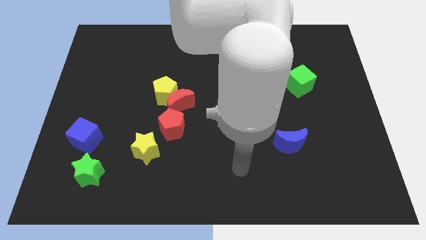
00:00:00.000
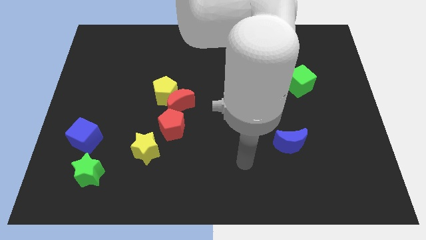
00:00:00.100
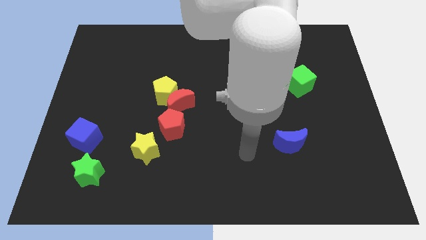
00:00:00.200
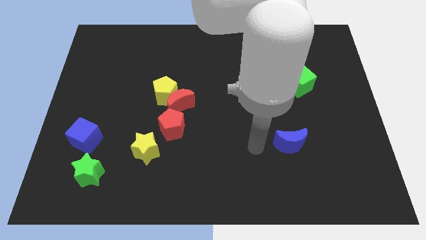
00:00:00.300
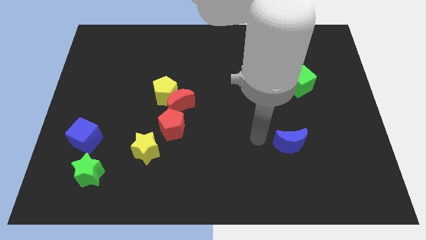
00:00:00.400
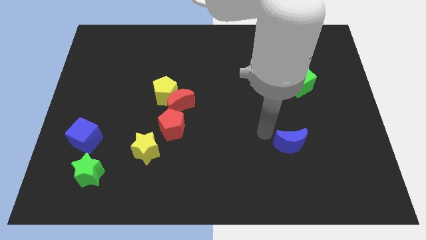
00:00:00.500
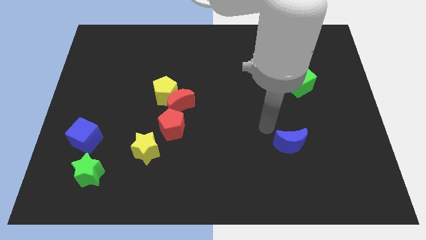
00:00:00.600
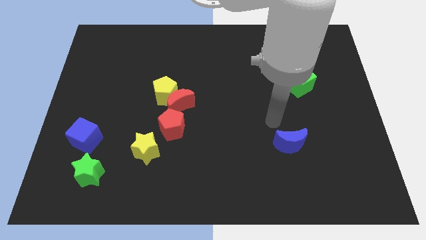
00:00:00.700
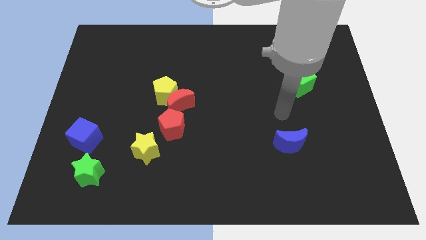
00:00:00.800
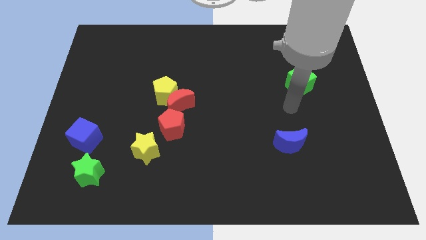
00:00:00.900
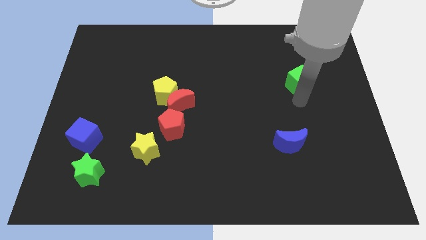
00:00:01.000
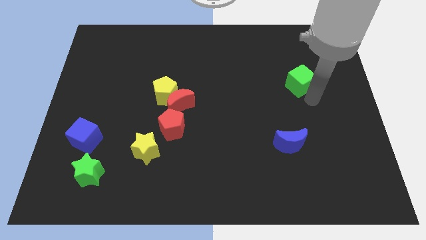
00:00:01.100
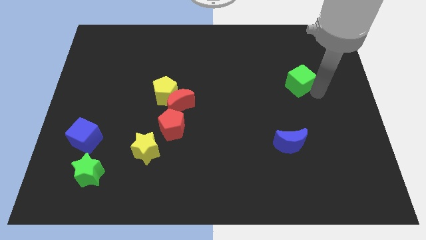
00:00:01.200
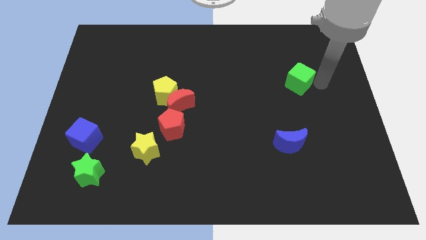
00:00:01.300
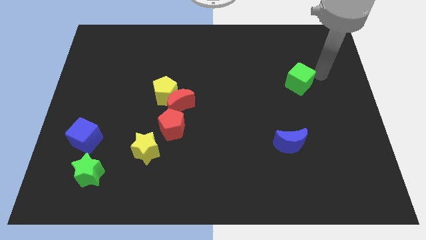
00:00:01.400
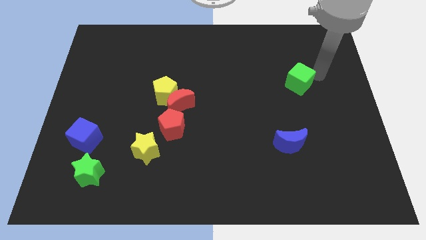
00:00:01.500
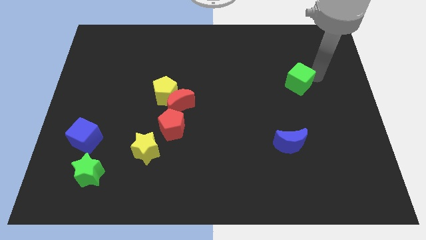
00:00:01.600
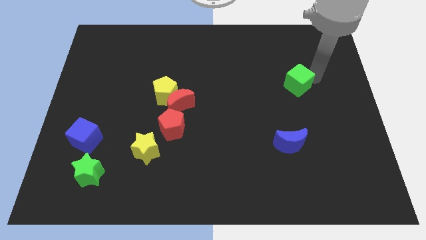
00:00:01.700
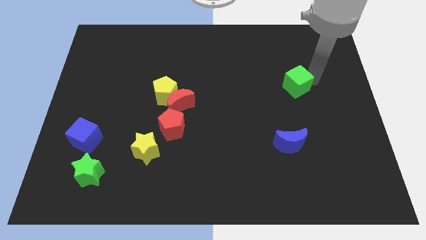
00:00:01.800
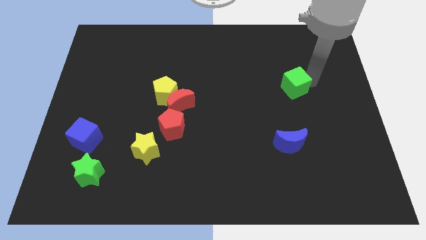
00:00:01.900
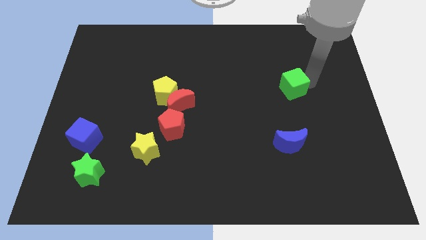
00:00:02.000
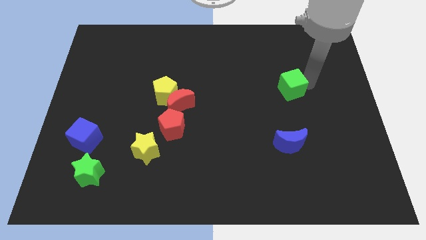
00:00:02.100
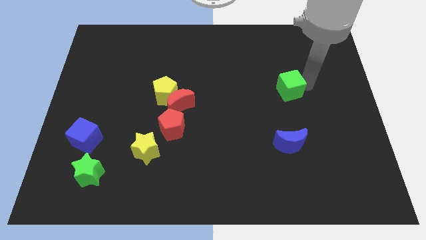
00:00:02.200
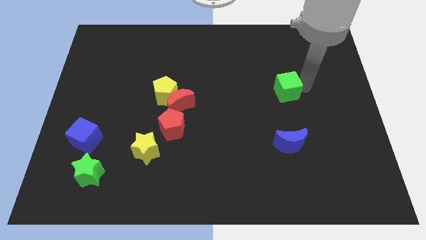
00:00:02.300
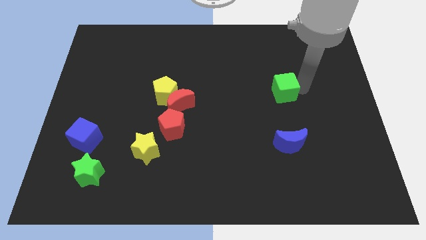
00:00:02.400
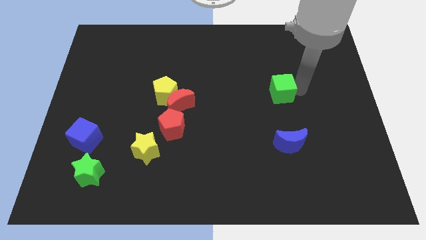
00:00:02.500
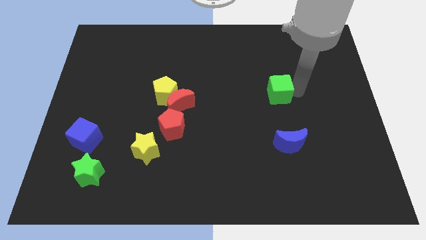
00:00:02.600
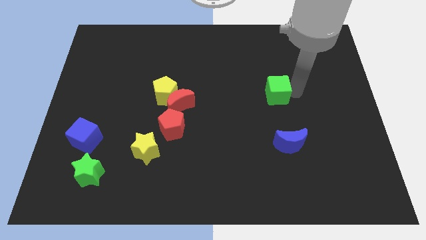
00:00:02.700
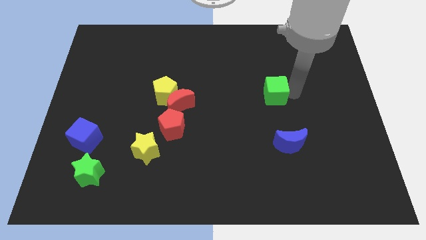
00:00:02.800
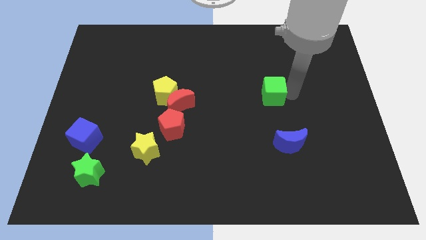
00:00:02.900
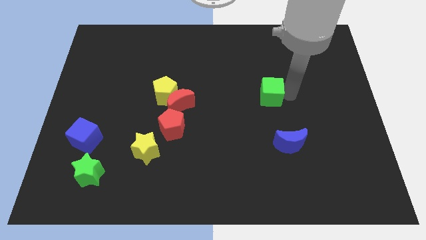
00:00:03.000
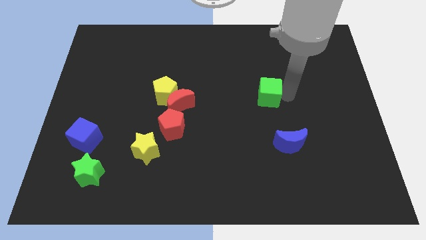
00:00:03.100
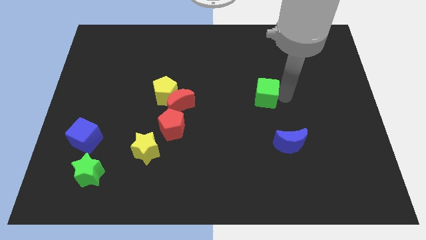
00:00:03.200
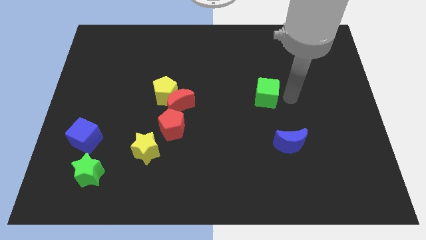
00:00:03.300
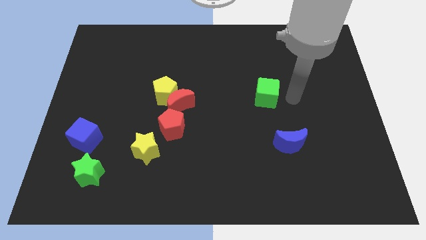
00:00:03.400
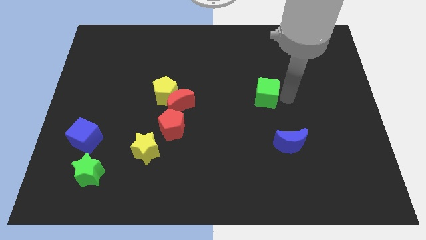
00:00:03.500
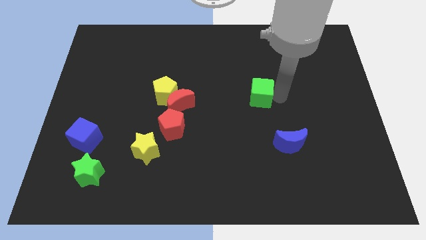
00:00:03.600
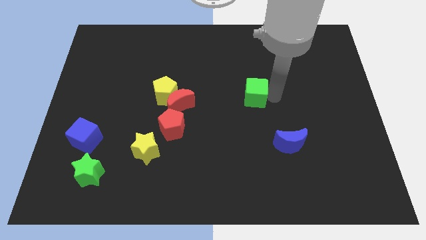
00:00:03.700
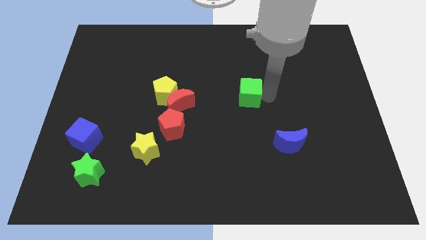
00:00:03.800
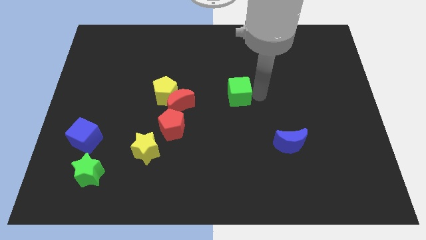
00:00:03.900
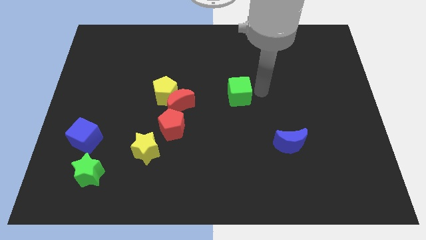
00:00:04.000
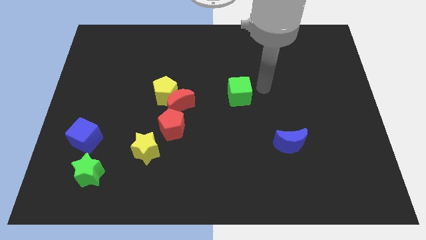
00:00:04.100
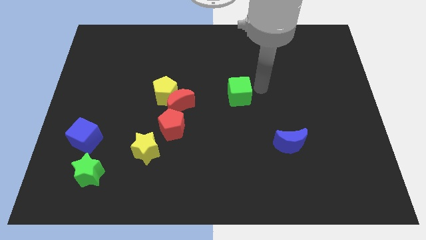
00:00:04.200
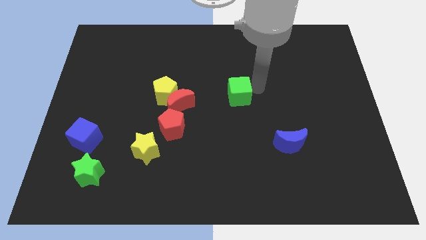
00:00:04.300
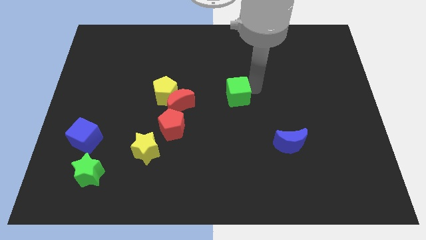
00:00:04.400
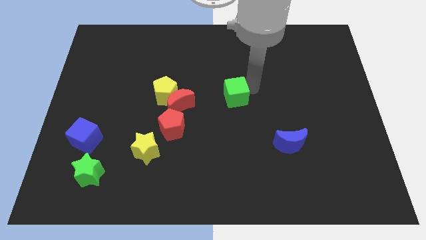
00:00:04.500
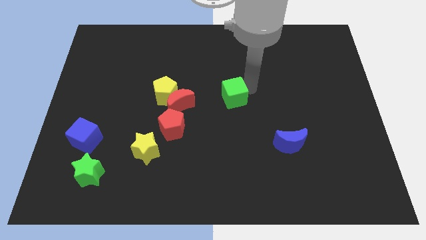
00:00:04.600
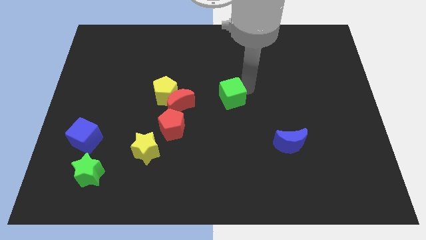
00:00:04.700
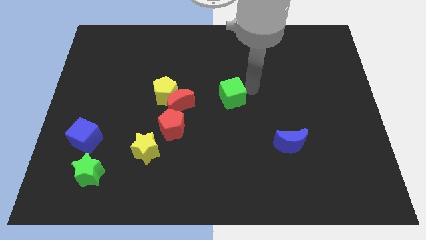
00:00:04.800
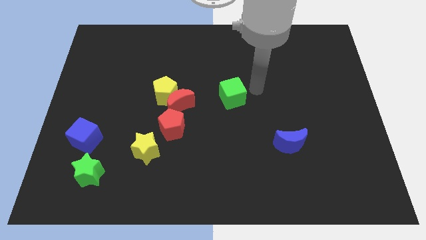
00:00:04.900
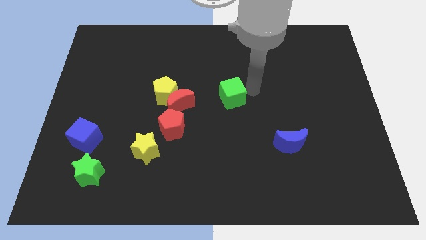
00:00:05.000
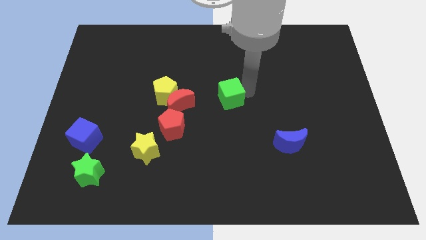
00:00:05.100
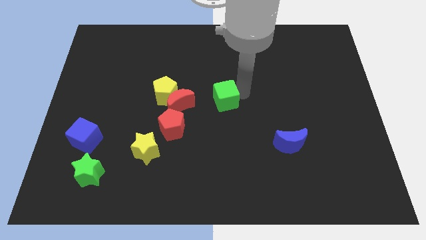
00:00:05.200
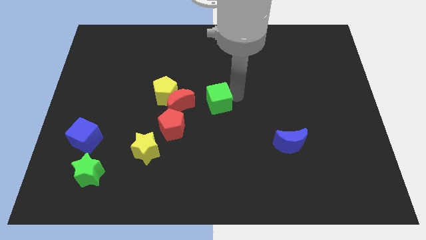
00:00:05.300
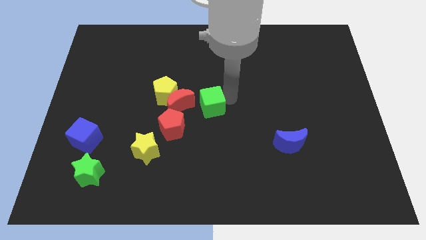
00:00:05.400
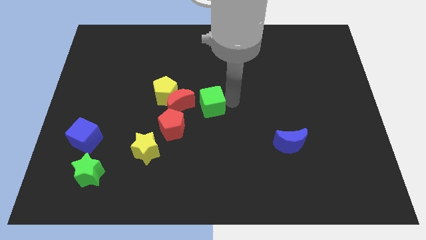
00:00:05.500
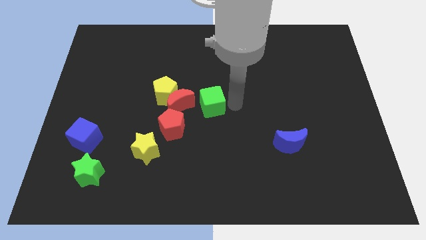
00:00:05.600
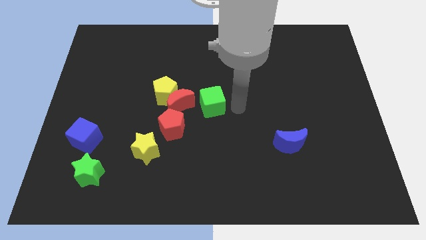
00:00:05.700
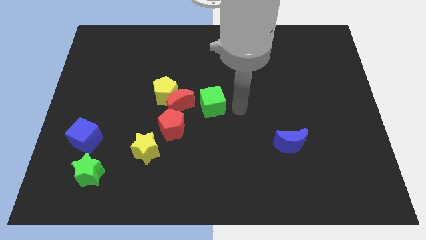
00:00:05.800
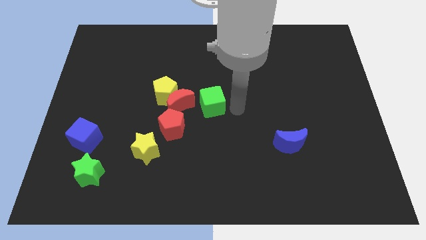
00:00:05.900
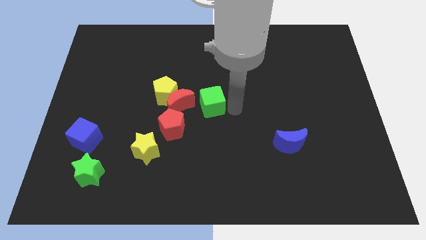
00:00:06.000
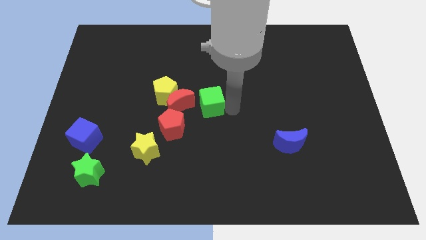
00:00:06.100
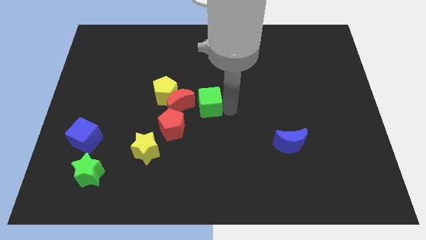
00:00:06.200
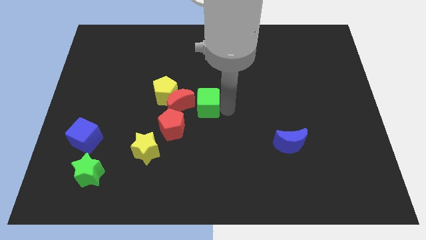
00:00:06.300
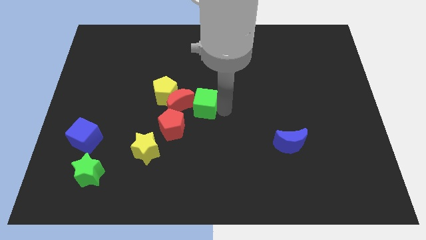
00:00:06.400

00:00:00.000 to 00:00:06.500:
move the green cube towards the red moon

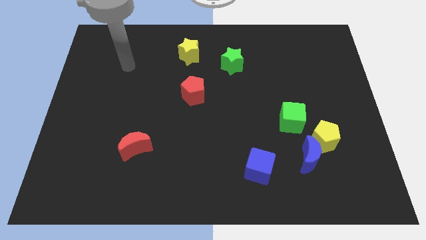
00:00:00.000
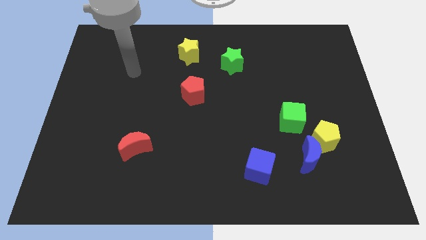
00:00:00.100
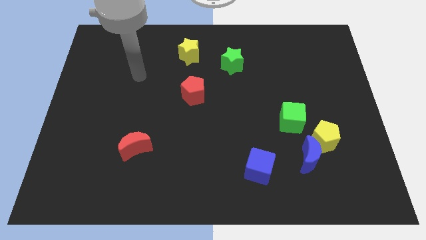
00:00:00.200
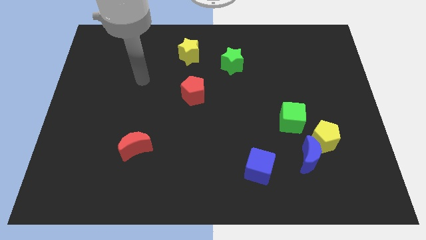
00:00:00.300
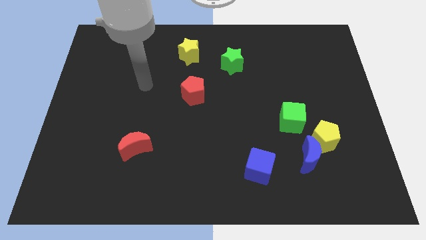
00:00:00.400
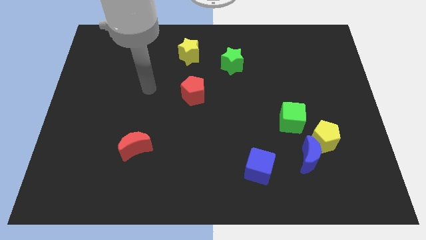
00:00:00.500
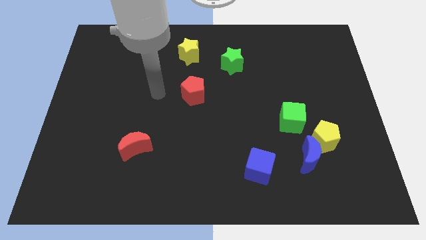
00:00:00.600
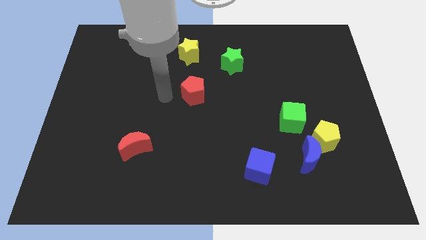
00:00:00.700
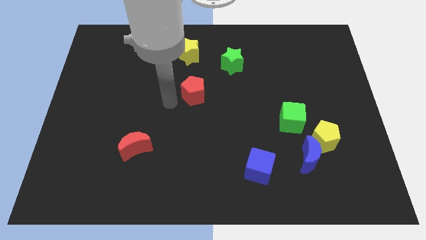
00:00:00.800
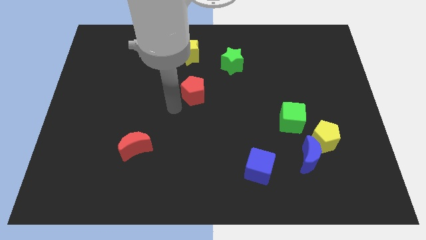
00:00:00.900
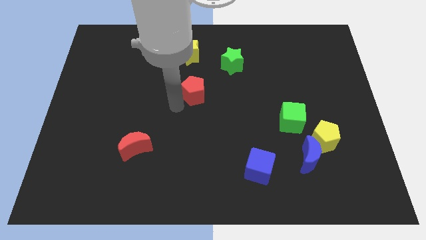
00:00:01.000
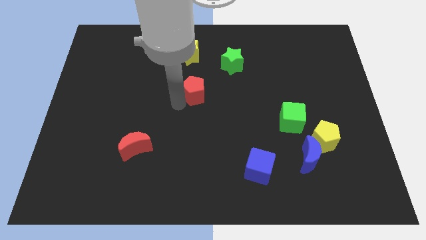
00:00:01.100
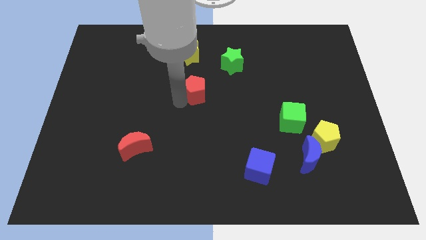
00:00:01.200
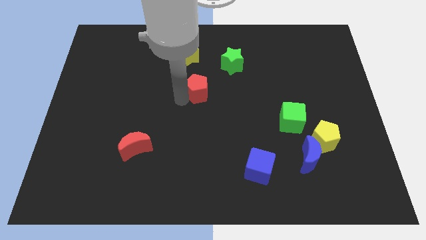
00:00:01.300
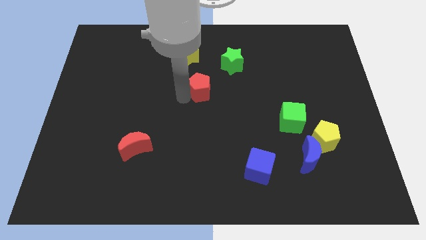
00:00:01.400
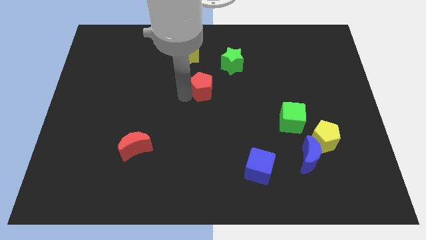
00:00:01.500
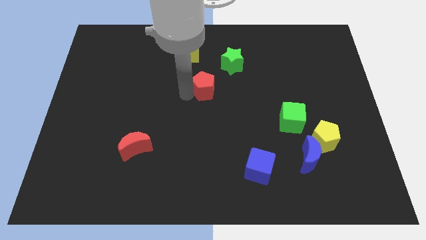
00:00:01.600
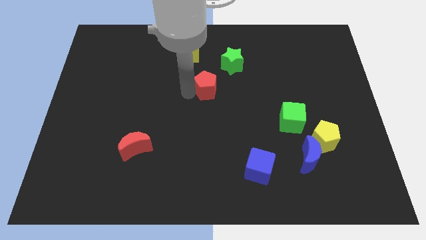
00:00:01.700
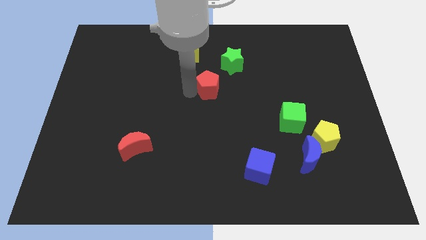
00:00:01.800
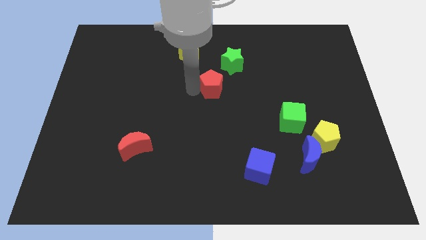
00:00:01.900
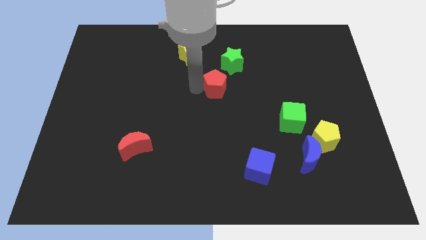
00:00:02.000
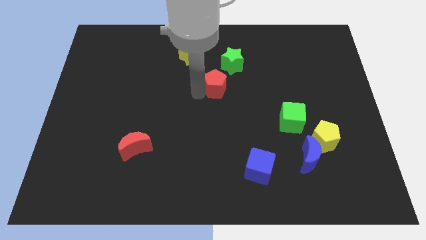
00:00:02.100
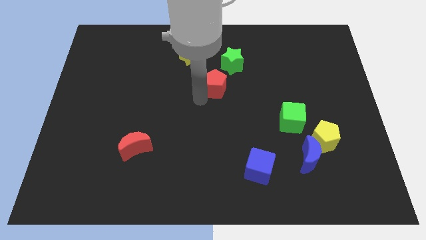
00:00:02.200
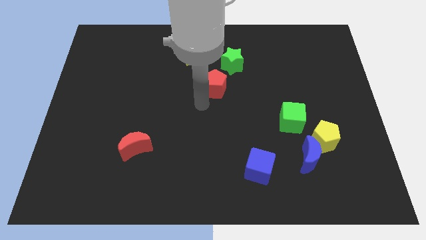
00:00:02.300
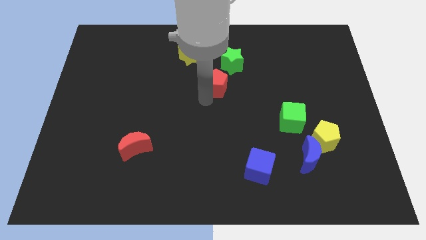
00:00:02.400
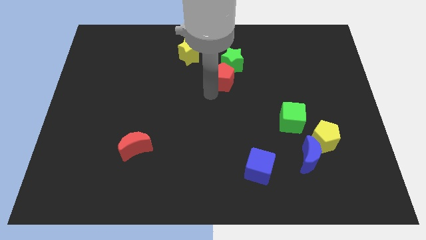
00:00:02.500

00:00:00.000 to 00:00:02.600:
push the red pentagon next to the green star
